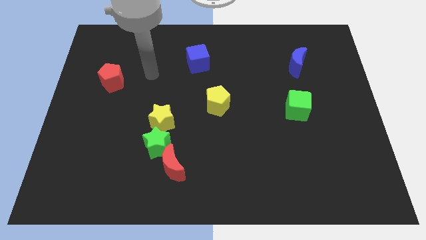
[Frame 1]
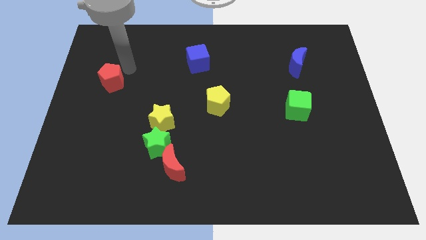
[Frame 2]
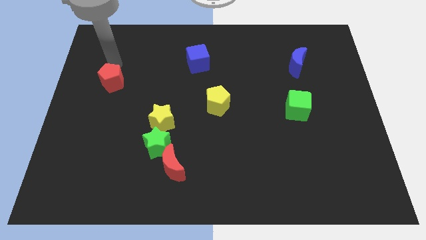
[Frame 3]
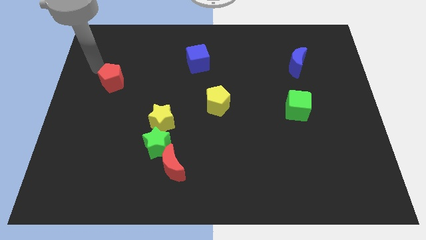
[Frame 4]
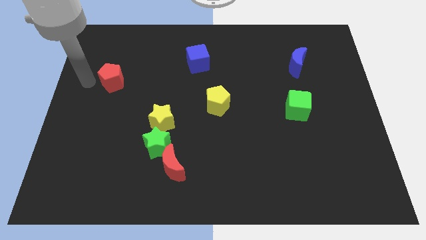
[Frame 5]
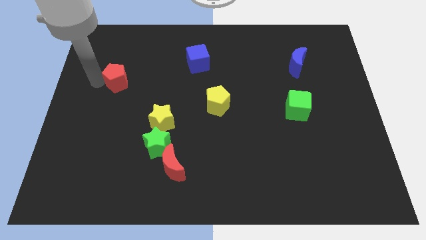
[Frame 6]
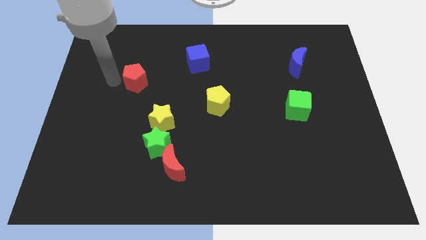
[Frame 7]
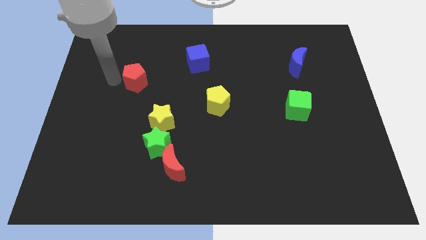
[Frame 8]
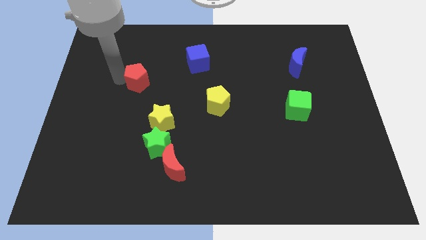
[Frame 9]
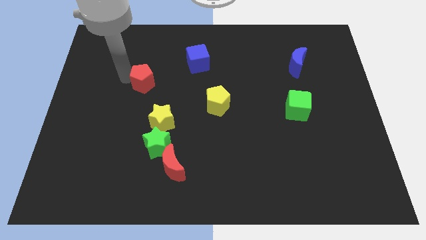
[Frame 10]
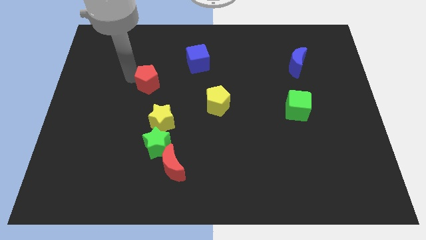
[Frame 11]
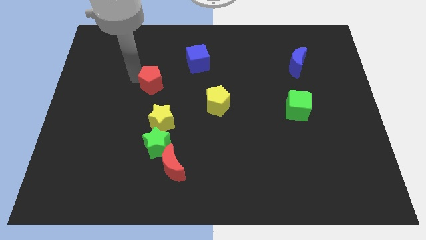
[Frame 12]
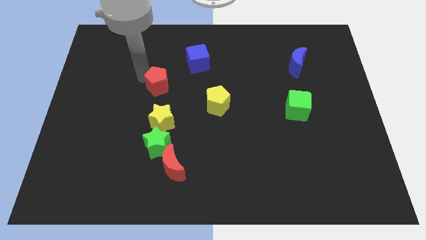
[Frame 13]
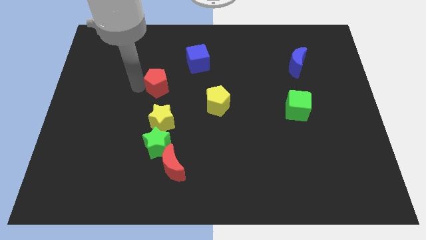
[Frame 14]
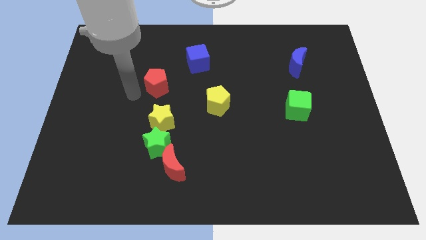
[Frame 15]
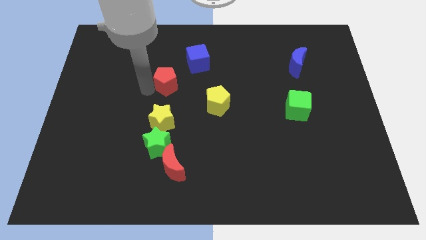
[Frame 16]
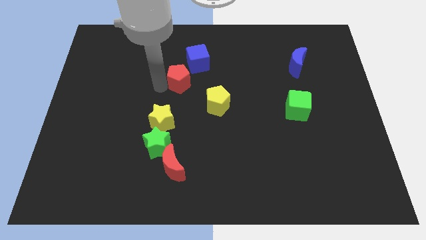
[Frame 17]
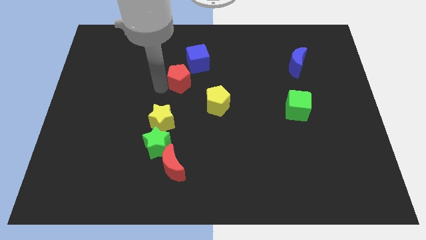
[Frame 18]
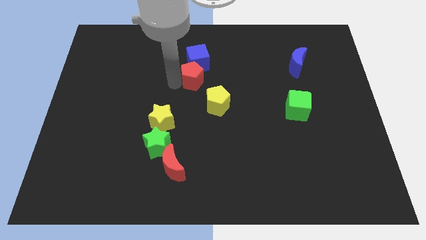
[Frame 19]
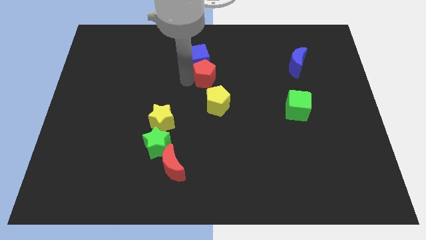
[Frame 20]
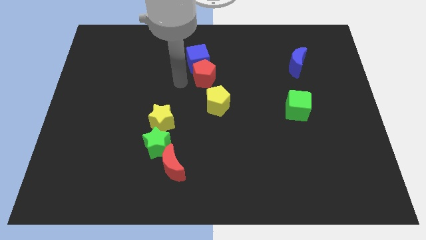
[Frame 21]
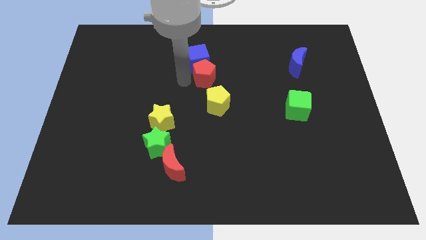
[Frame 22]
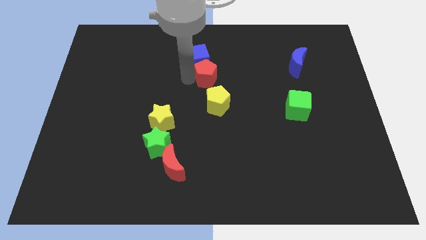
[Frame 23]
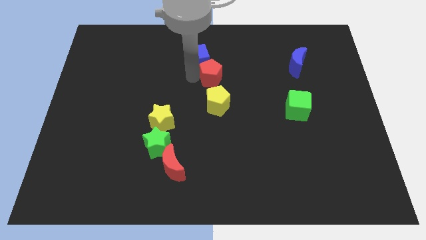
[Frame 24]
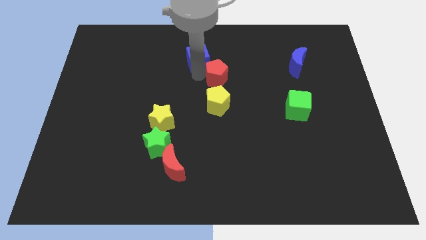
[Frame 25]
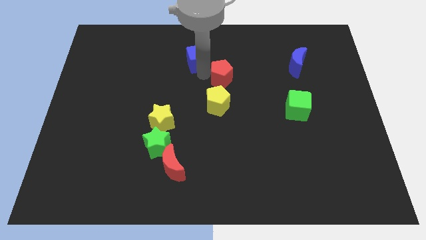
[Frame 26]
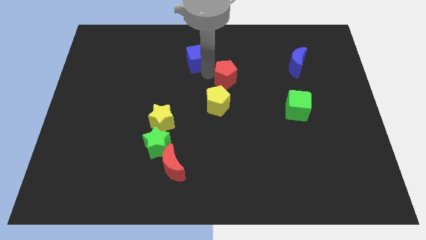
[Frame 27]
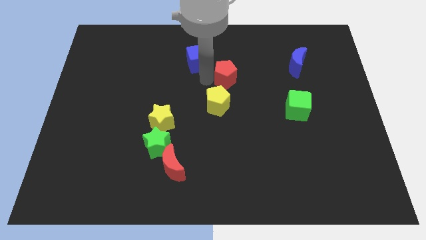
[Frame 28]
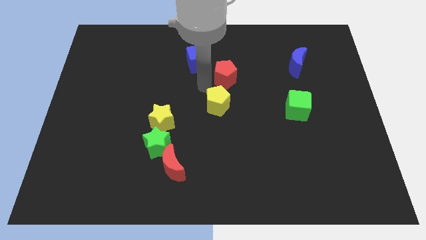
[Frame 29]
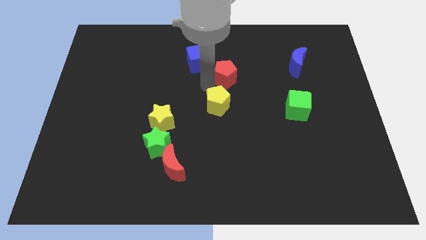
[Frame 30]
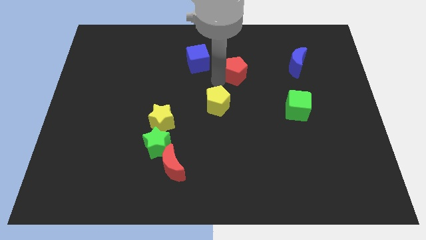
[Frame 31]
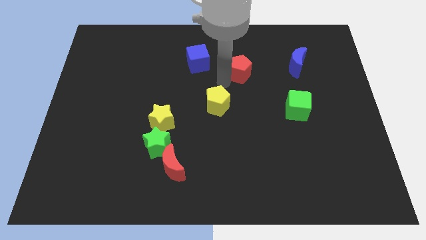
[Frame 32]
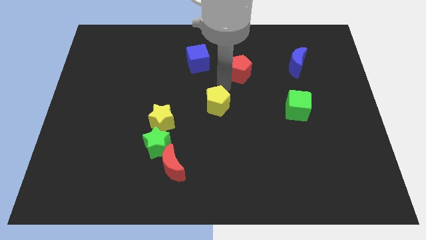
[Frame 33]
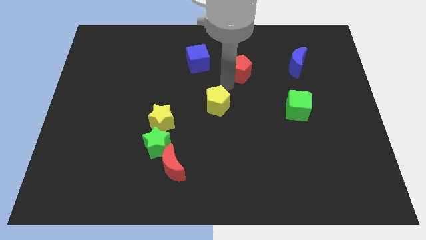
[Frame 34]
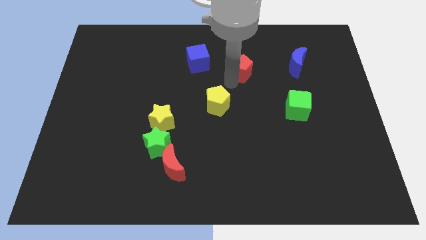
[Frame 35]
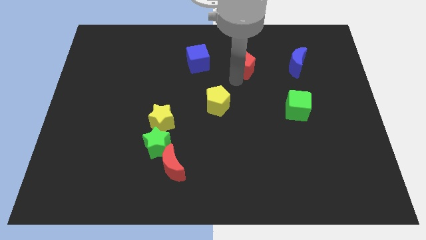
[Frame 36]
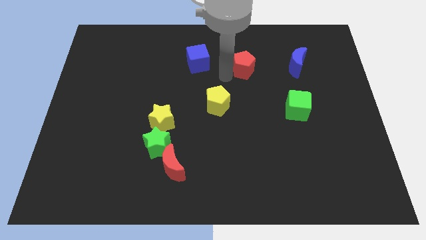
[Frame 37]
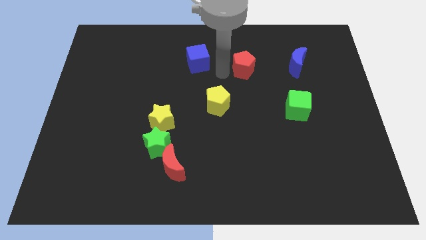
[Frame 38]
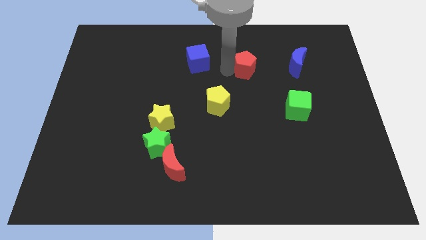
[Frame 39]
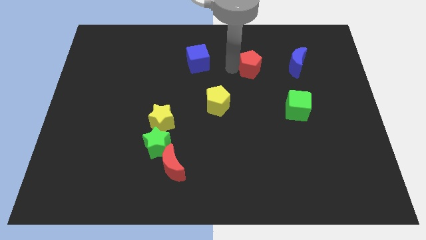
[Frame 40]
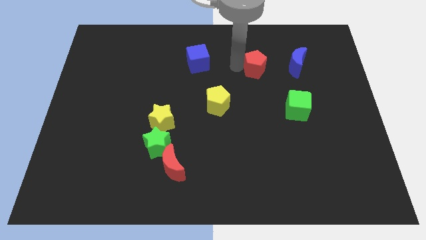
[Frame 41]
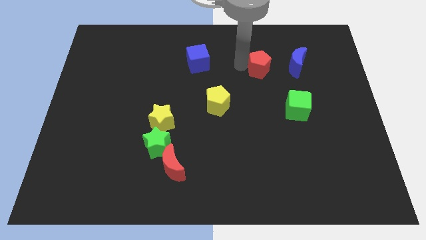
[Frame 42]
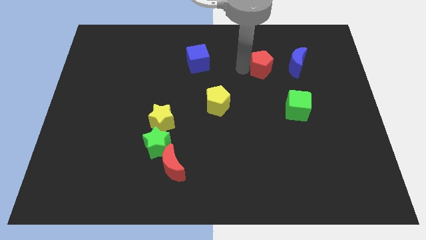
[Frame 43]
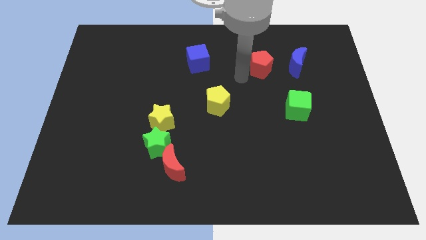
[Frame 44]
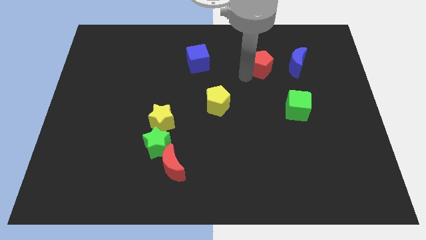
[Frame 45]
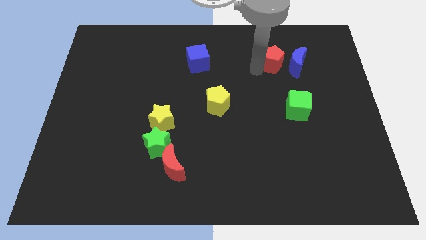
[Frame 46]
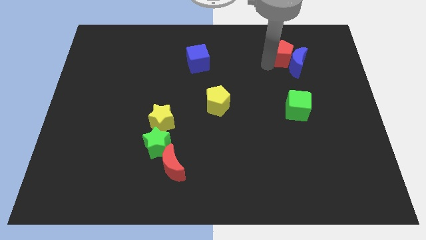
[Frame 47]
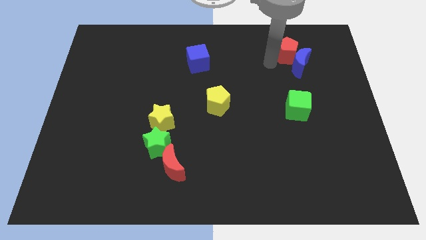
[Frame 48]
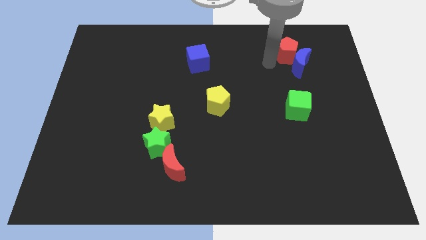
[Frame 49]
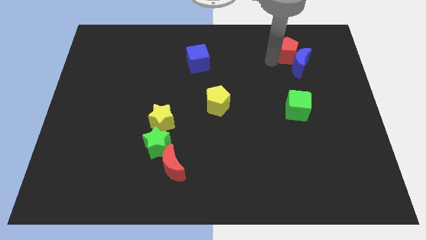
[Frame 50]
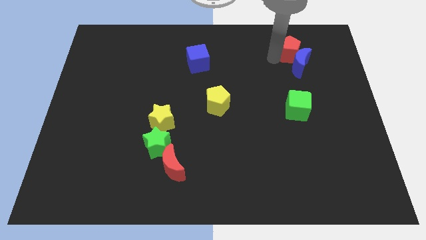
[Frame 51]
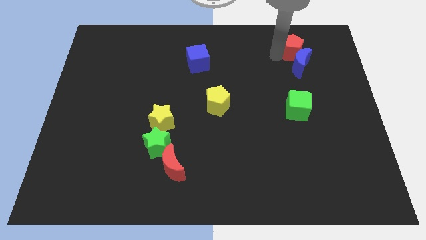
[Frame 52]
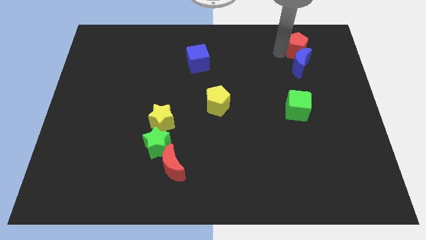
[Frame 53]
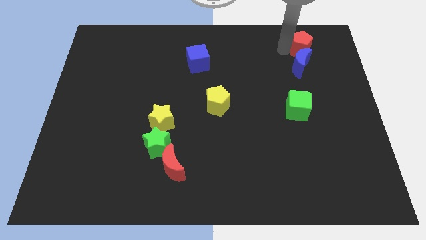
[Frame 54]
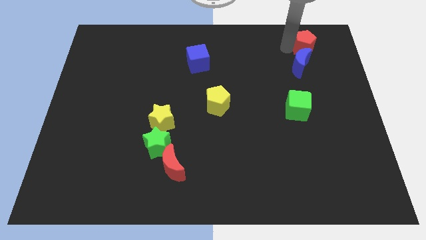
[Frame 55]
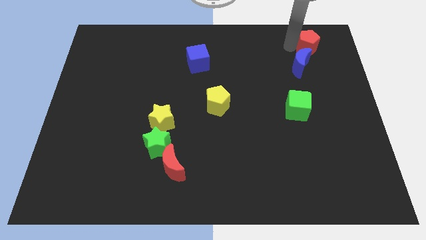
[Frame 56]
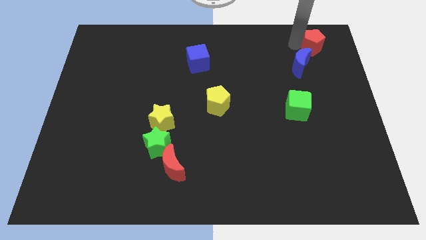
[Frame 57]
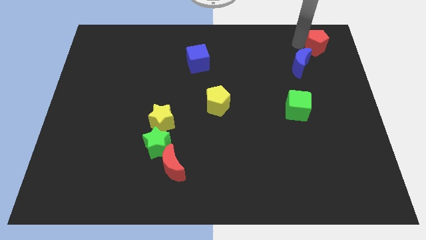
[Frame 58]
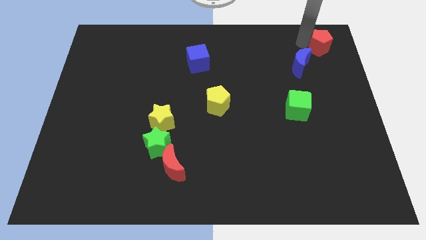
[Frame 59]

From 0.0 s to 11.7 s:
put the red pentagon to the top right corner

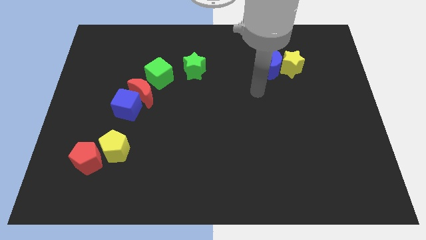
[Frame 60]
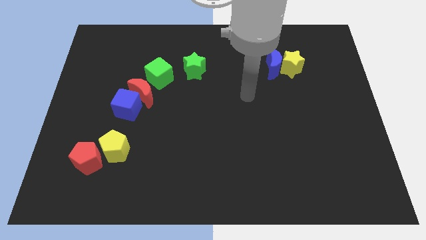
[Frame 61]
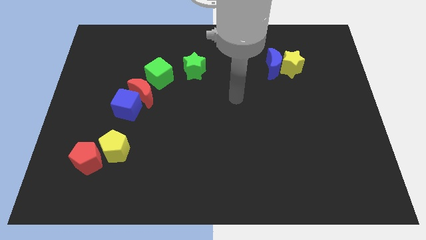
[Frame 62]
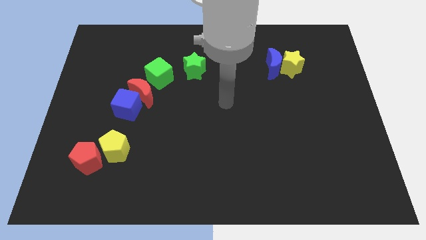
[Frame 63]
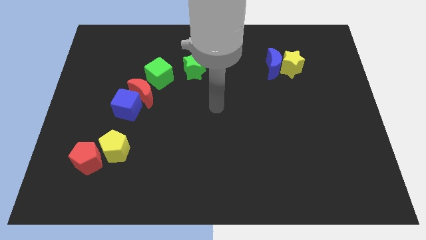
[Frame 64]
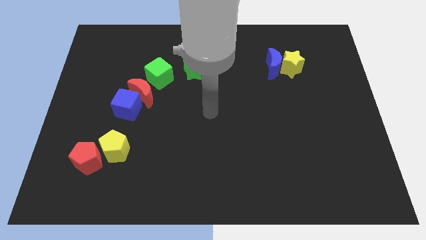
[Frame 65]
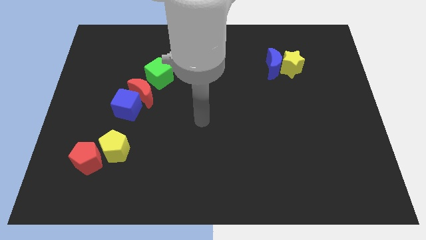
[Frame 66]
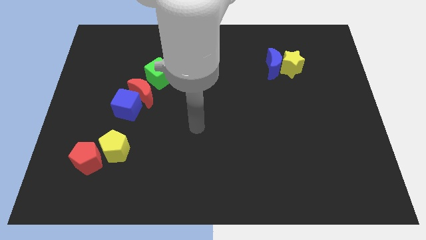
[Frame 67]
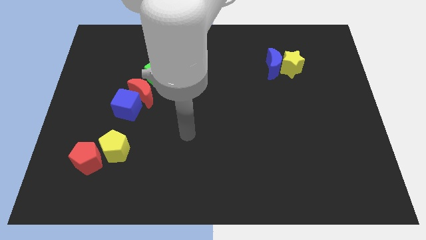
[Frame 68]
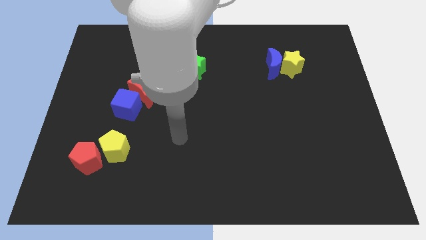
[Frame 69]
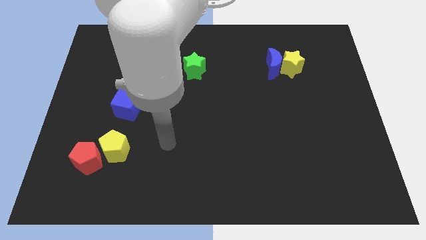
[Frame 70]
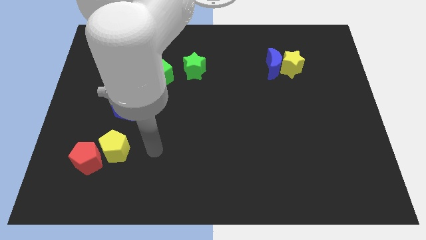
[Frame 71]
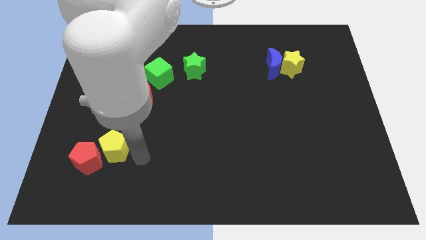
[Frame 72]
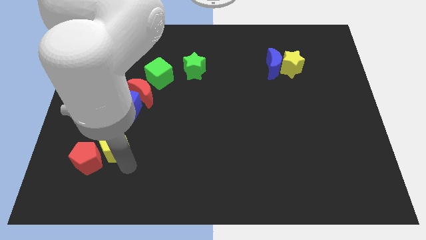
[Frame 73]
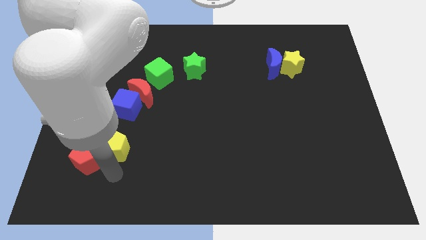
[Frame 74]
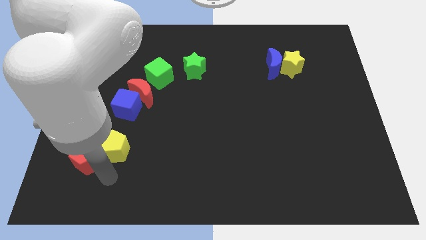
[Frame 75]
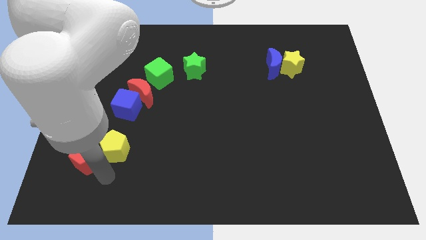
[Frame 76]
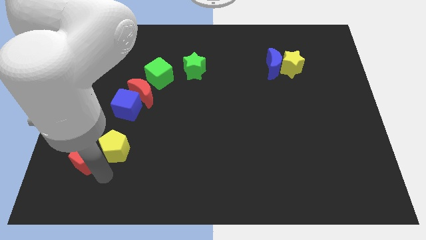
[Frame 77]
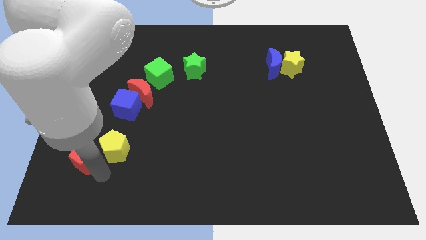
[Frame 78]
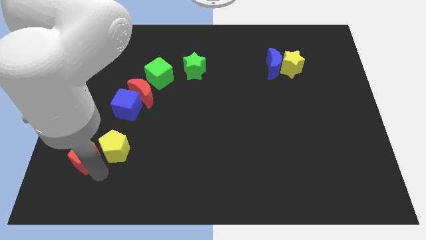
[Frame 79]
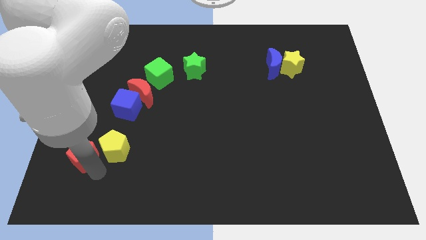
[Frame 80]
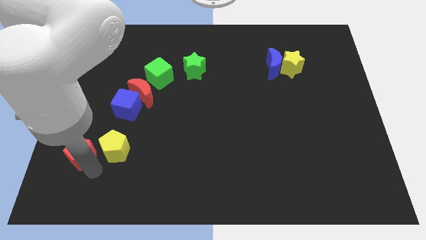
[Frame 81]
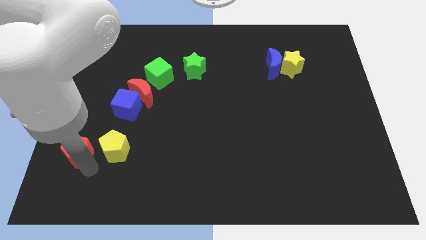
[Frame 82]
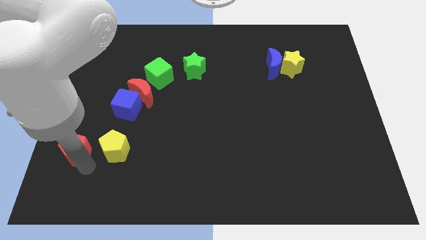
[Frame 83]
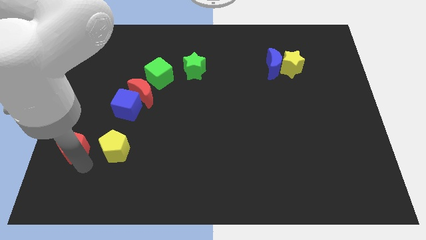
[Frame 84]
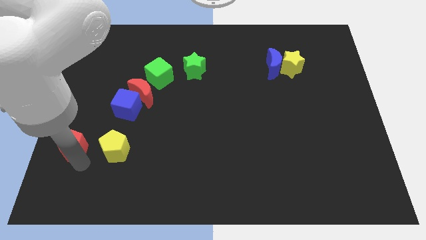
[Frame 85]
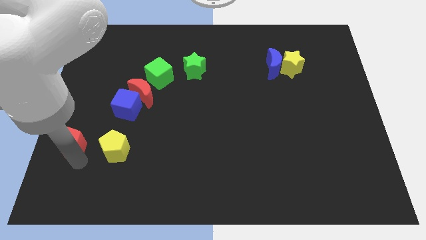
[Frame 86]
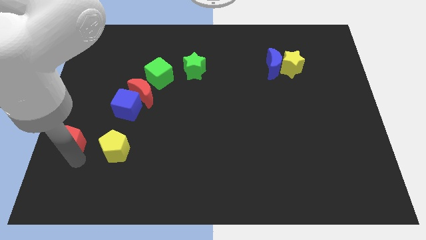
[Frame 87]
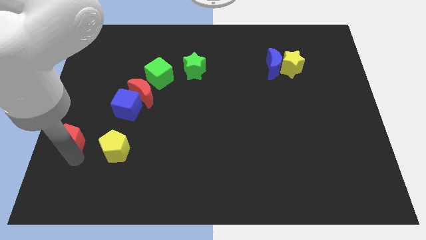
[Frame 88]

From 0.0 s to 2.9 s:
push the red pentagon to the left side
